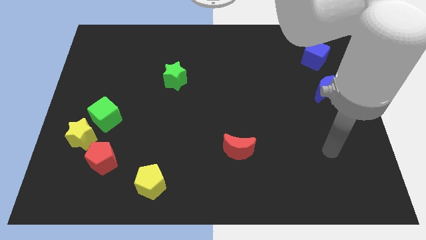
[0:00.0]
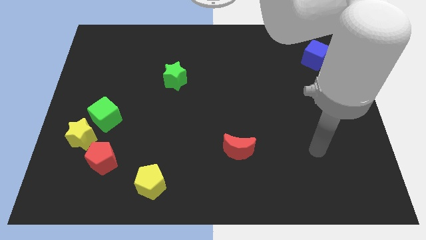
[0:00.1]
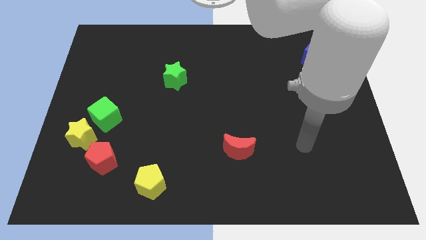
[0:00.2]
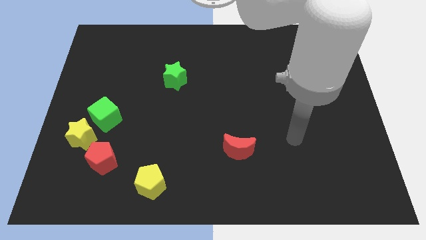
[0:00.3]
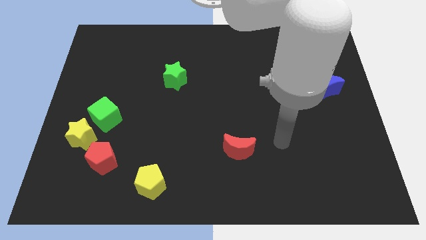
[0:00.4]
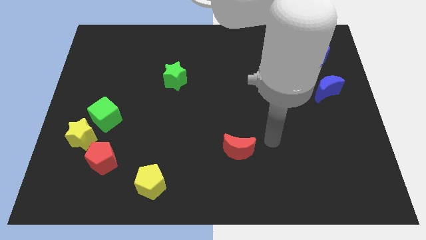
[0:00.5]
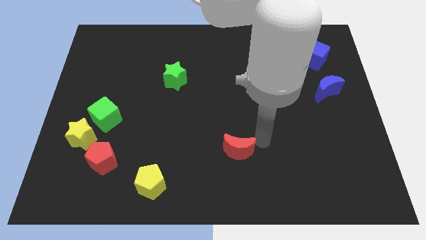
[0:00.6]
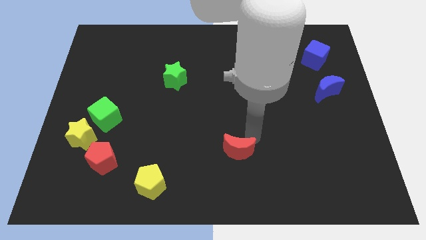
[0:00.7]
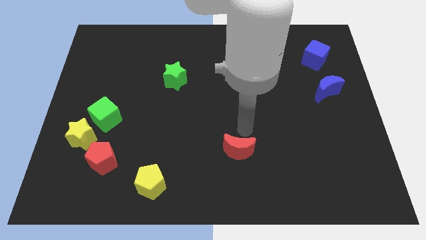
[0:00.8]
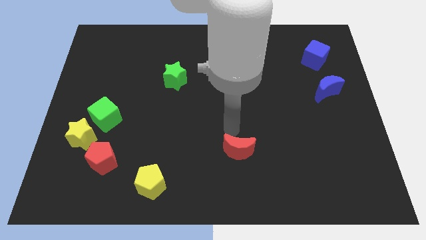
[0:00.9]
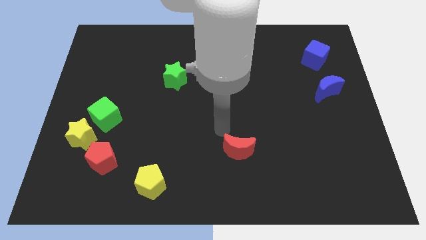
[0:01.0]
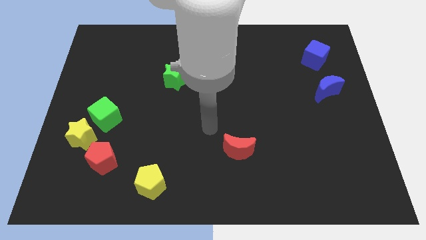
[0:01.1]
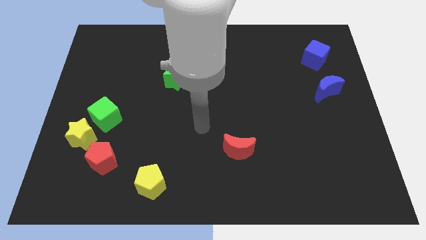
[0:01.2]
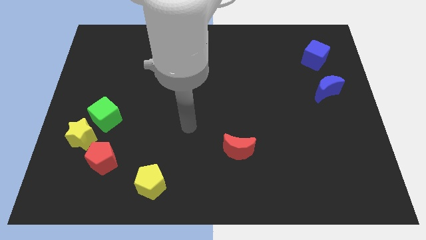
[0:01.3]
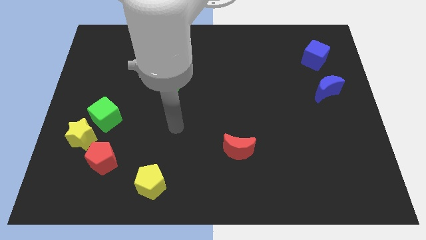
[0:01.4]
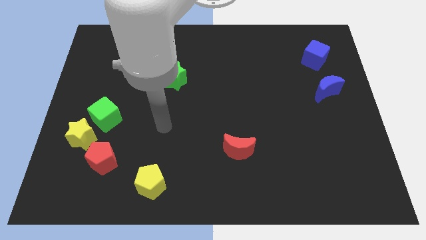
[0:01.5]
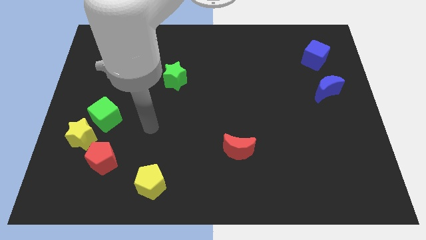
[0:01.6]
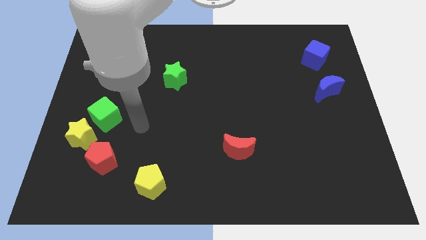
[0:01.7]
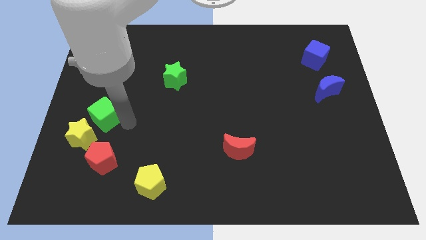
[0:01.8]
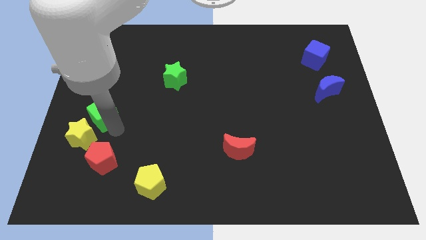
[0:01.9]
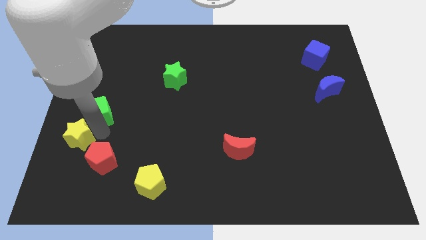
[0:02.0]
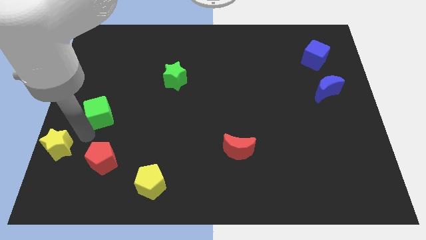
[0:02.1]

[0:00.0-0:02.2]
pull the green cube apart from the yellow star

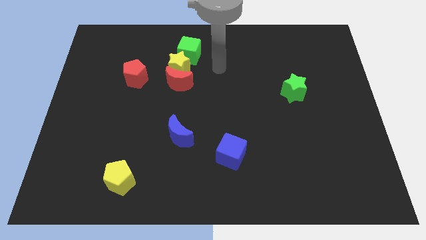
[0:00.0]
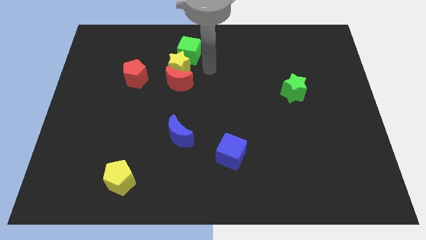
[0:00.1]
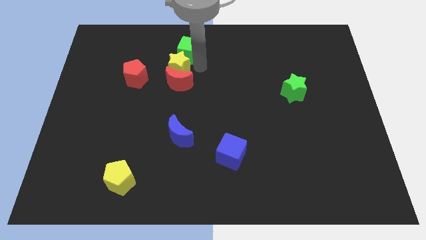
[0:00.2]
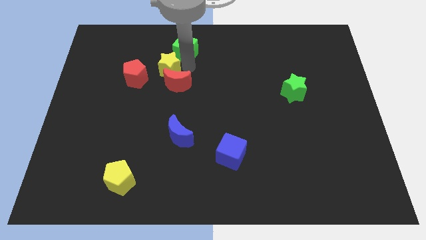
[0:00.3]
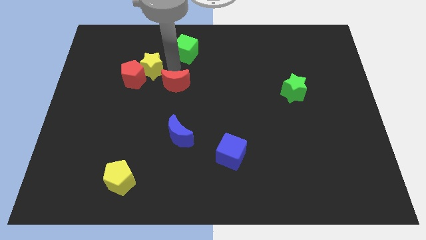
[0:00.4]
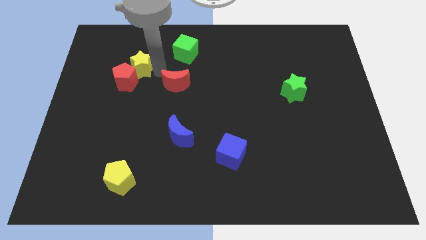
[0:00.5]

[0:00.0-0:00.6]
pull the red moon apart from the yellow star

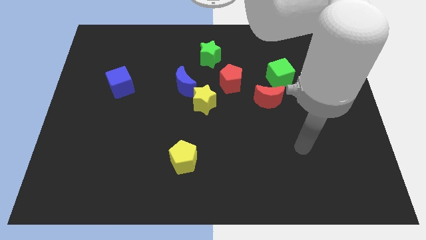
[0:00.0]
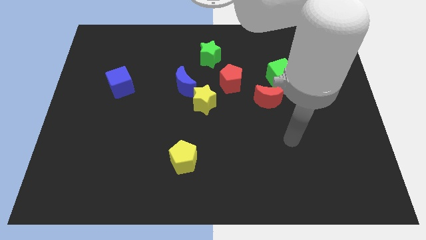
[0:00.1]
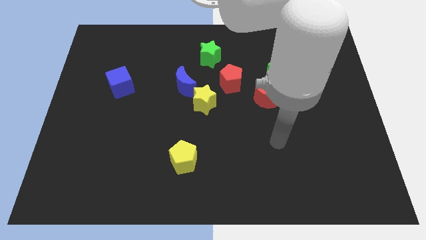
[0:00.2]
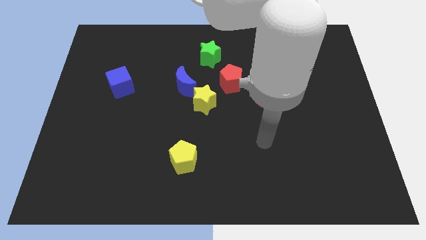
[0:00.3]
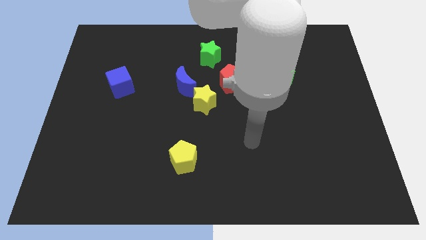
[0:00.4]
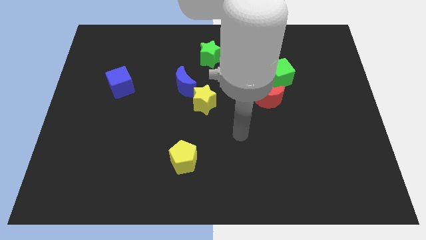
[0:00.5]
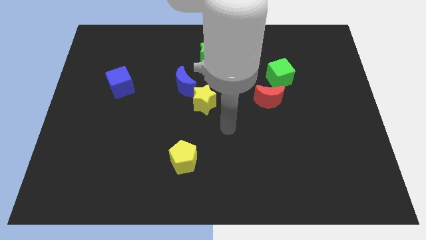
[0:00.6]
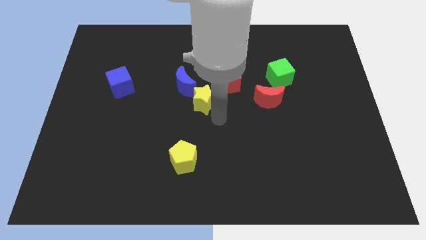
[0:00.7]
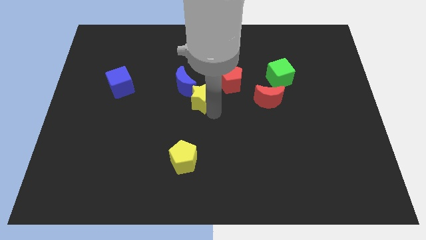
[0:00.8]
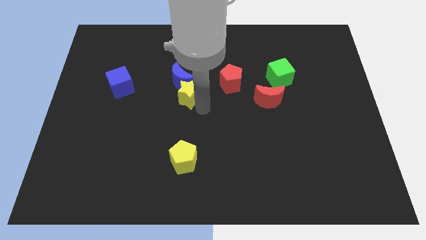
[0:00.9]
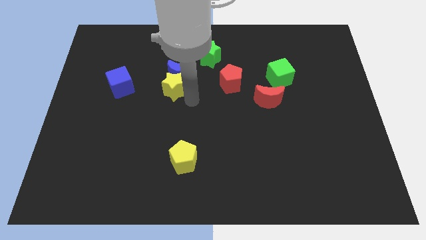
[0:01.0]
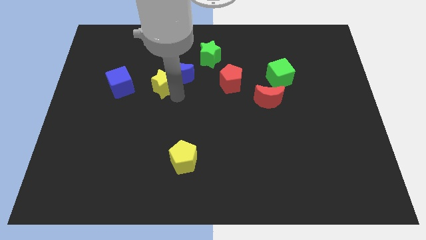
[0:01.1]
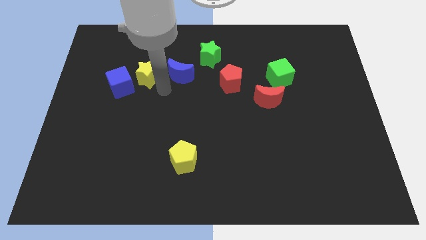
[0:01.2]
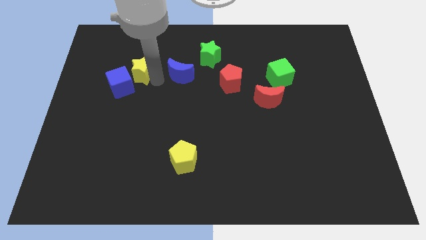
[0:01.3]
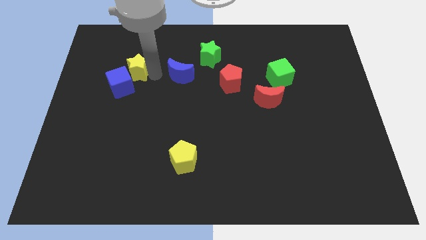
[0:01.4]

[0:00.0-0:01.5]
separate the blue moon from the yellow star

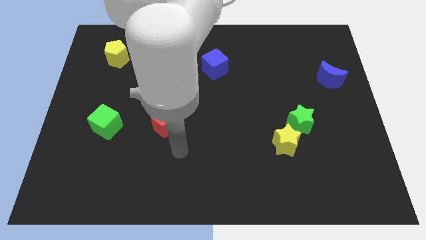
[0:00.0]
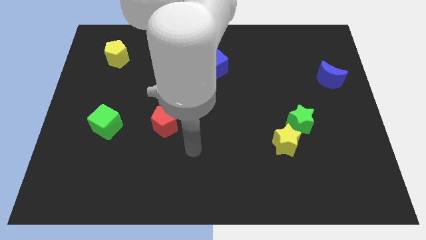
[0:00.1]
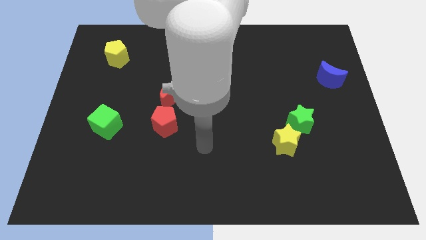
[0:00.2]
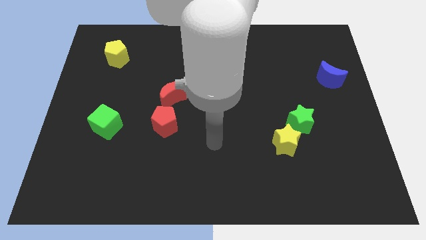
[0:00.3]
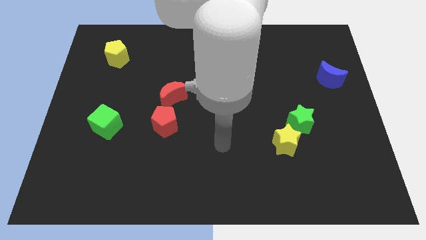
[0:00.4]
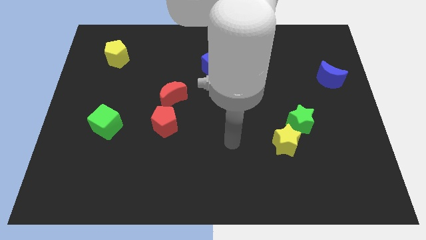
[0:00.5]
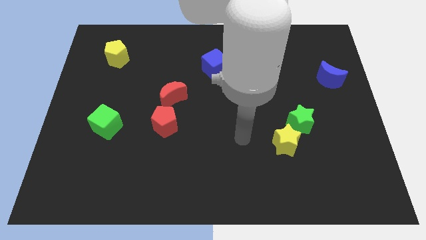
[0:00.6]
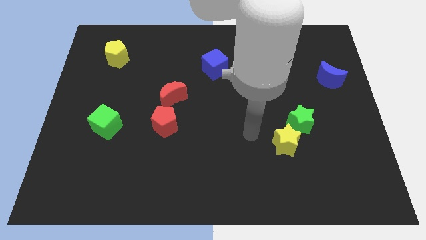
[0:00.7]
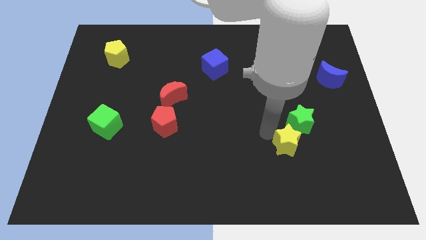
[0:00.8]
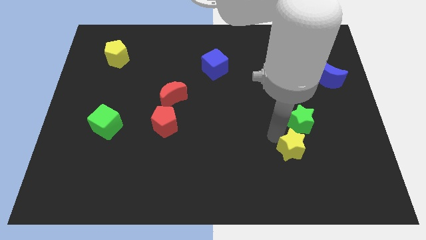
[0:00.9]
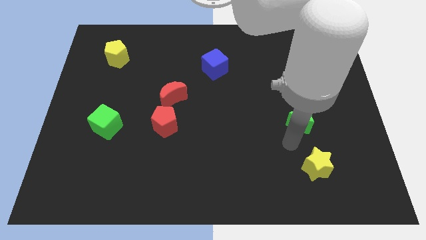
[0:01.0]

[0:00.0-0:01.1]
pull the green star apart from the yellow star

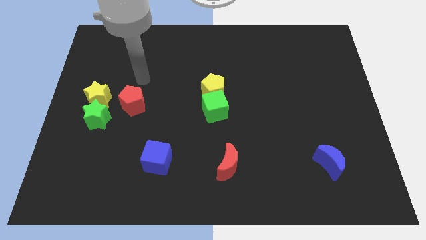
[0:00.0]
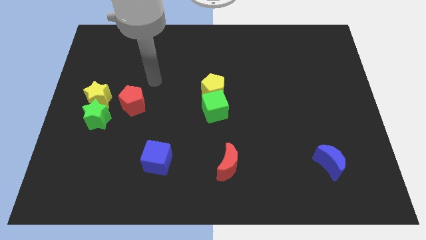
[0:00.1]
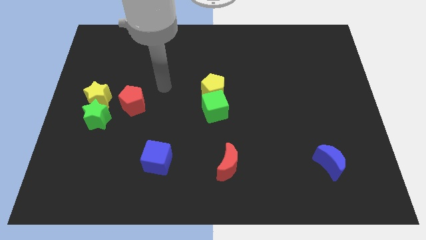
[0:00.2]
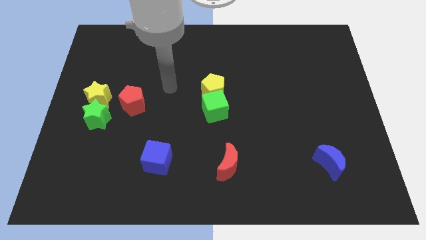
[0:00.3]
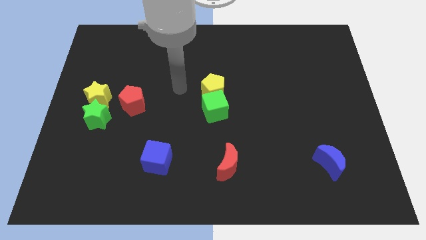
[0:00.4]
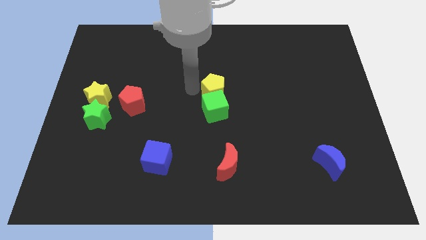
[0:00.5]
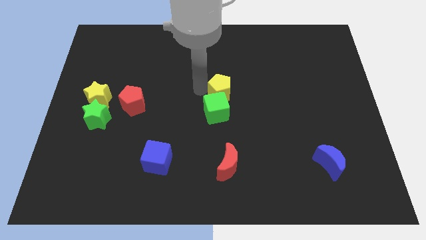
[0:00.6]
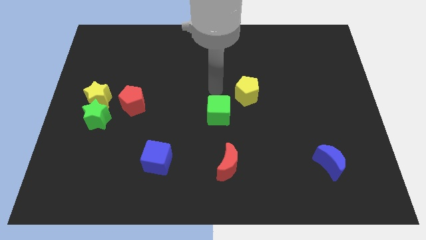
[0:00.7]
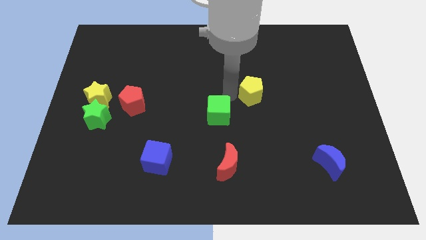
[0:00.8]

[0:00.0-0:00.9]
separate the green cube from the yellow pentagon

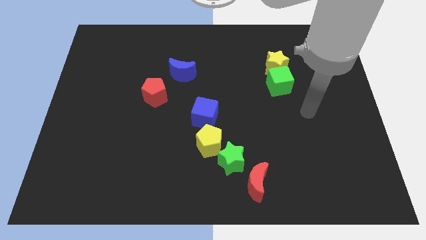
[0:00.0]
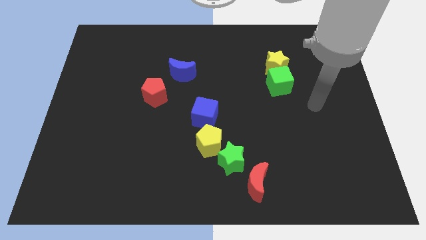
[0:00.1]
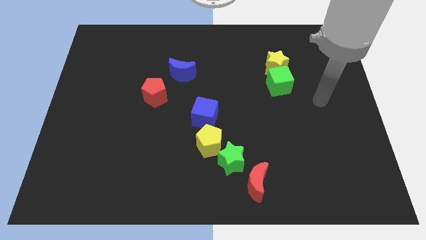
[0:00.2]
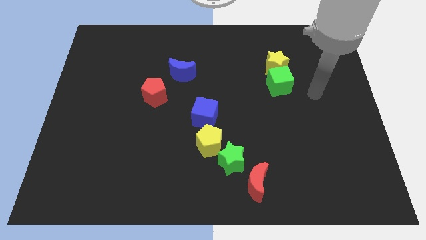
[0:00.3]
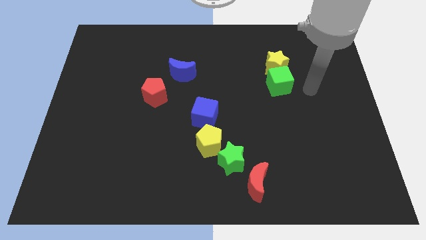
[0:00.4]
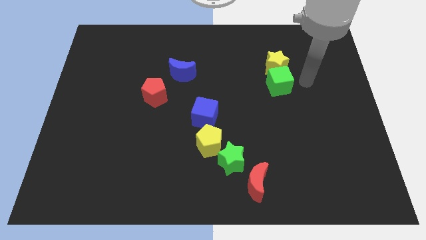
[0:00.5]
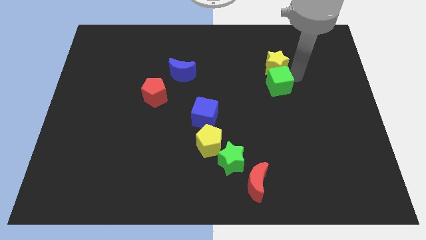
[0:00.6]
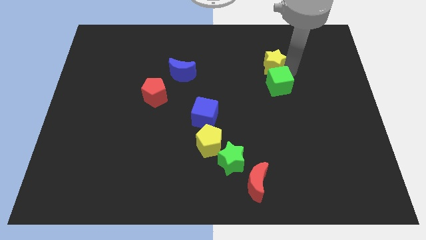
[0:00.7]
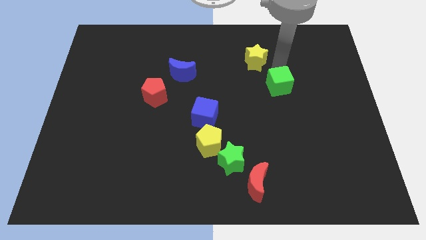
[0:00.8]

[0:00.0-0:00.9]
separate the green cube from the yellow star

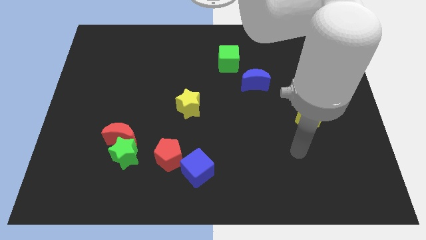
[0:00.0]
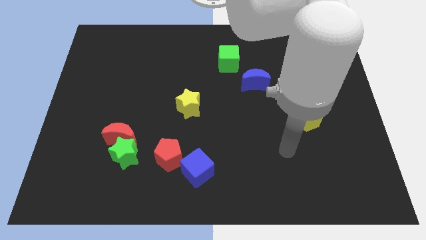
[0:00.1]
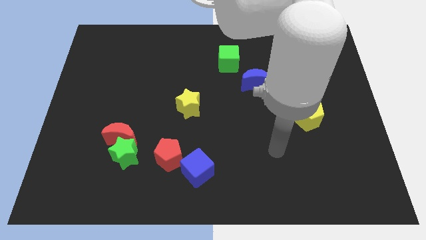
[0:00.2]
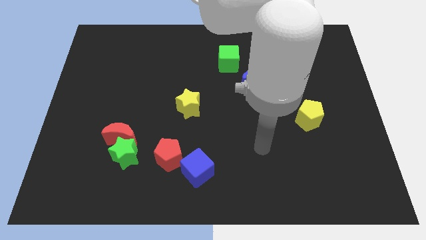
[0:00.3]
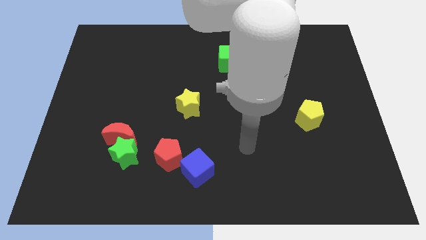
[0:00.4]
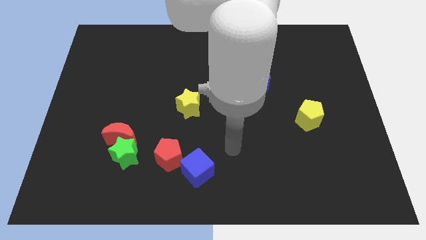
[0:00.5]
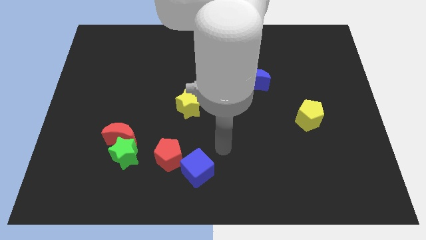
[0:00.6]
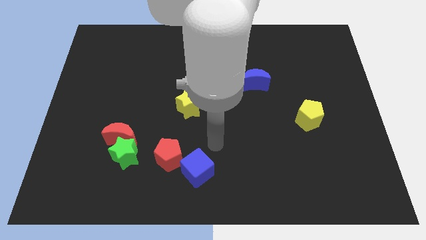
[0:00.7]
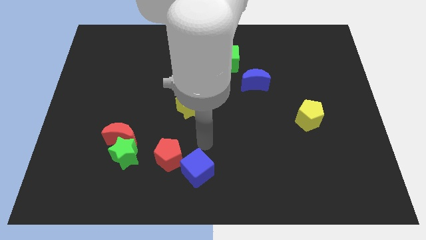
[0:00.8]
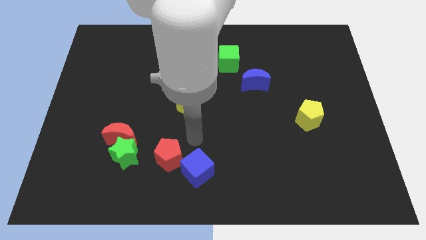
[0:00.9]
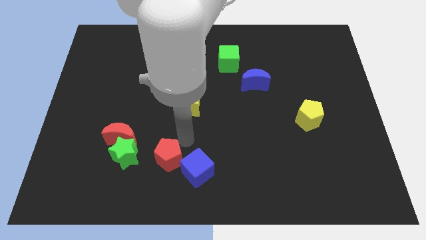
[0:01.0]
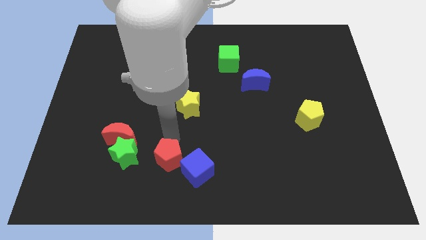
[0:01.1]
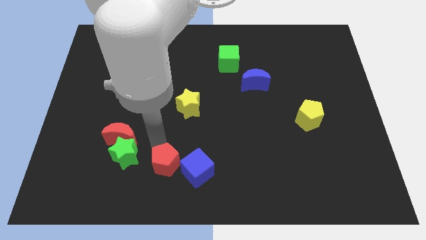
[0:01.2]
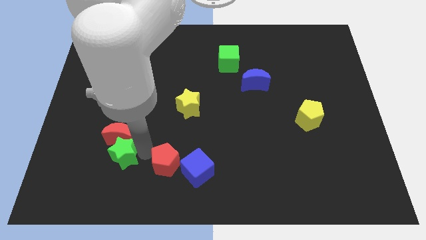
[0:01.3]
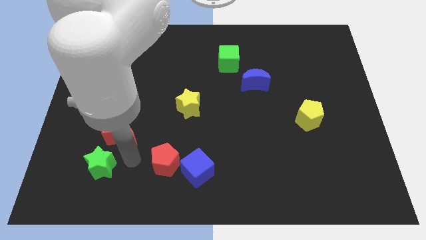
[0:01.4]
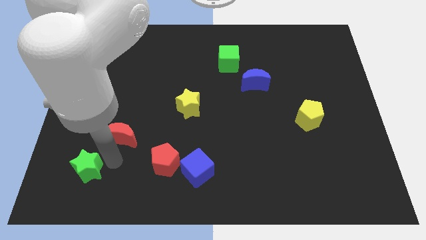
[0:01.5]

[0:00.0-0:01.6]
pull the red moon apart from the green star

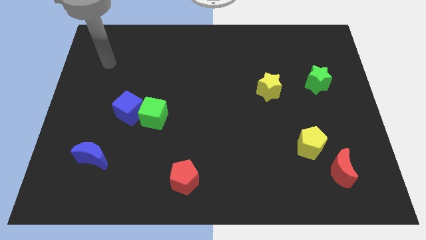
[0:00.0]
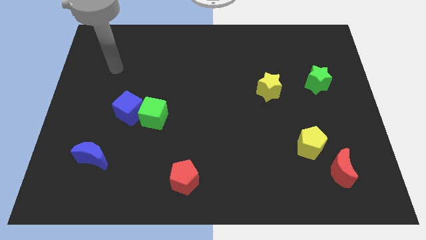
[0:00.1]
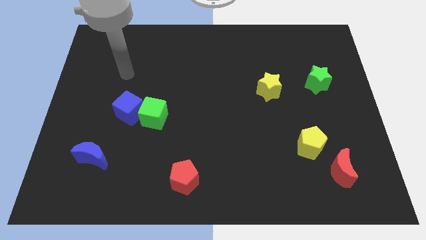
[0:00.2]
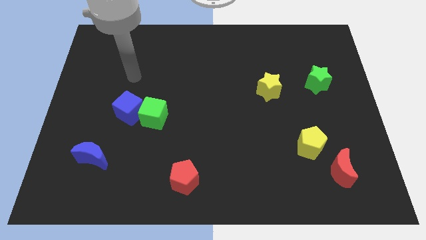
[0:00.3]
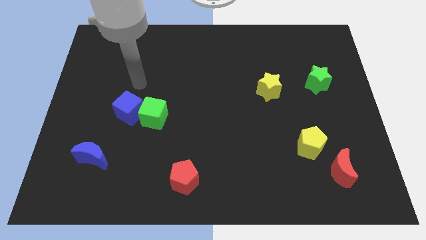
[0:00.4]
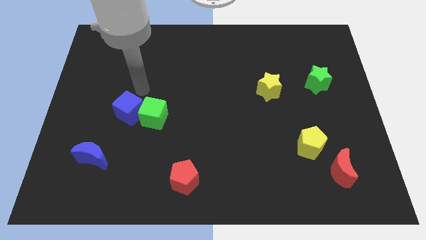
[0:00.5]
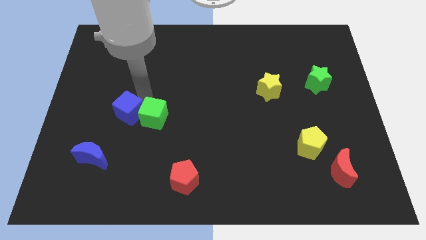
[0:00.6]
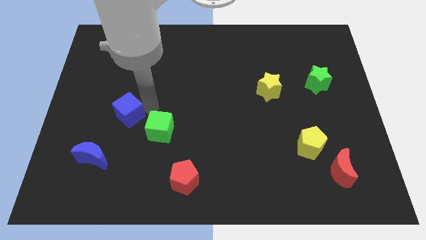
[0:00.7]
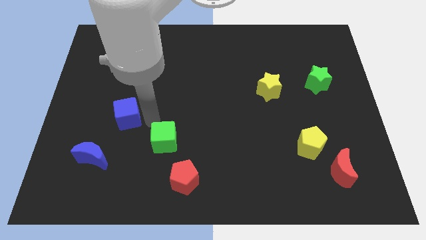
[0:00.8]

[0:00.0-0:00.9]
move the blue cube away from the green cube
